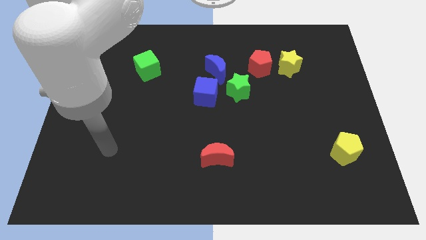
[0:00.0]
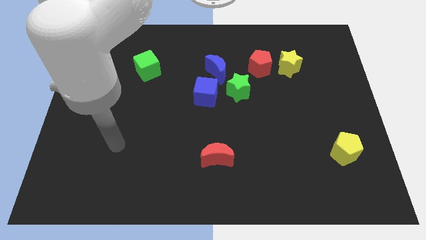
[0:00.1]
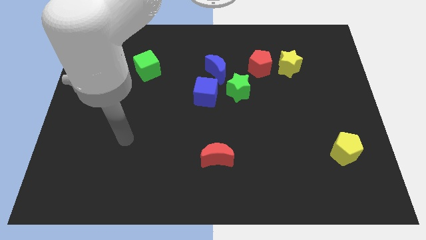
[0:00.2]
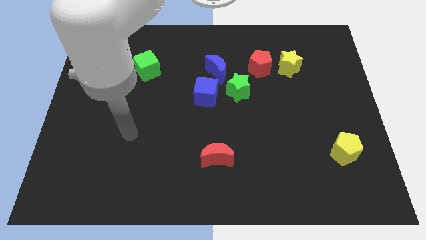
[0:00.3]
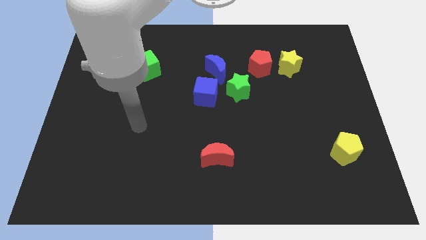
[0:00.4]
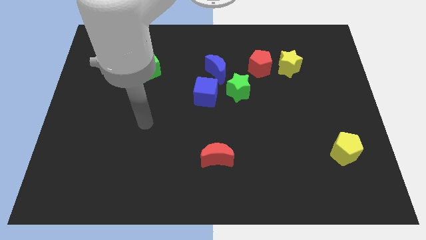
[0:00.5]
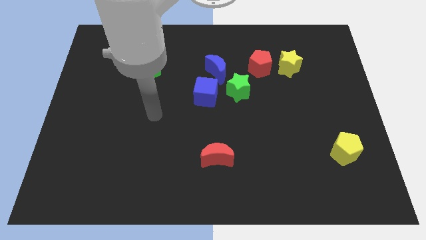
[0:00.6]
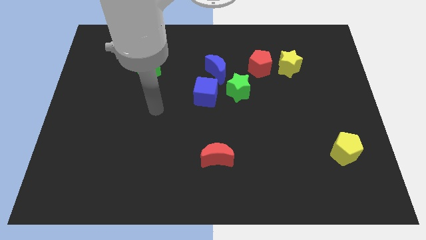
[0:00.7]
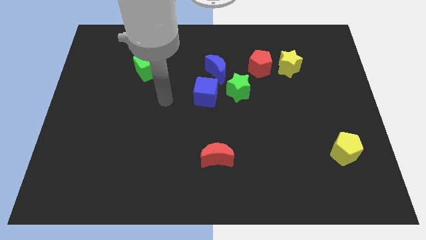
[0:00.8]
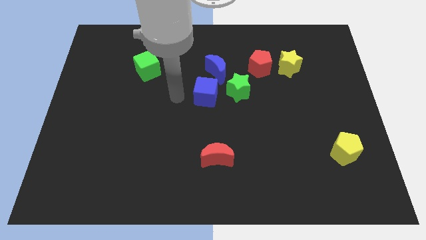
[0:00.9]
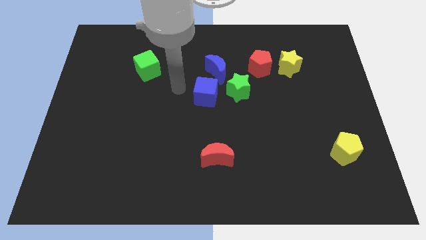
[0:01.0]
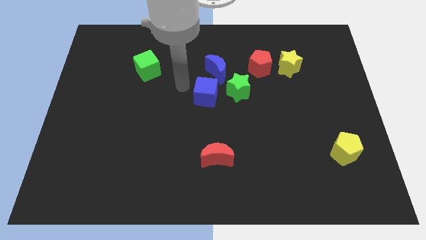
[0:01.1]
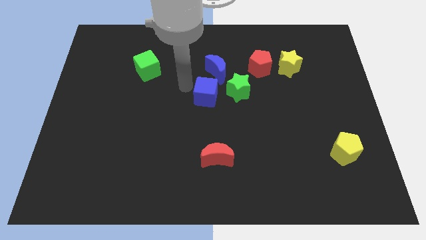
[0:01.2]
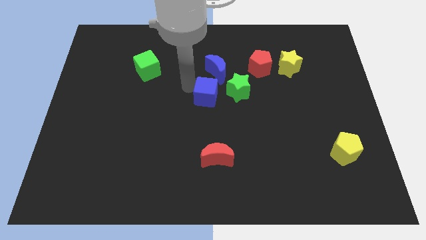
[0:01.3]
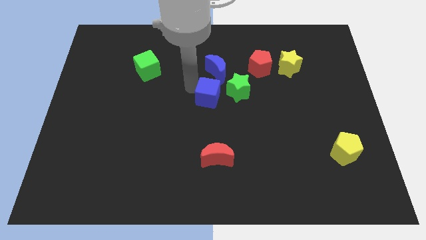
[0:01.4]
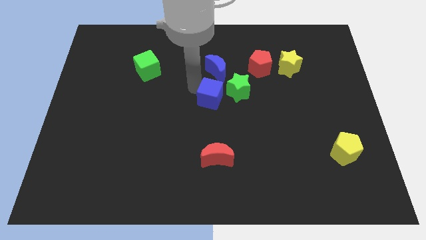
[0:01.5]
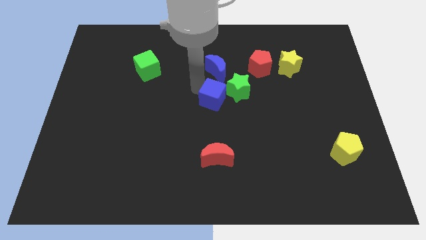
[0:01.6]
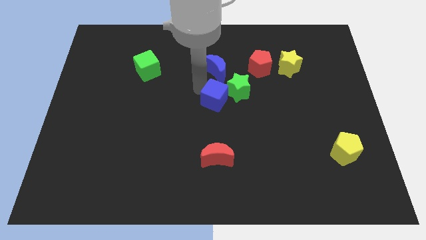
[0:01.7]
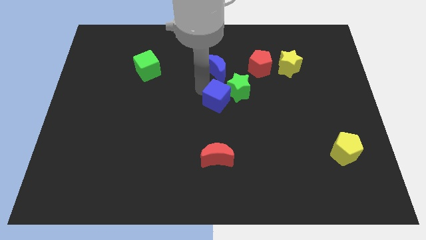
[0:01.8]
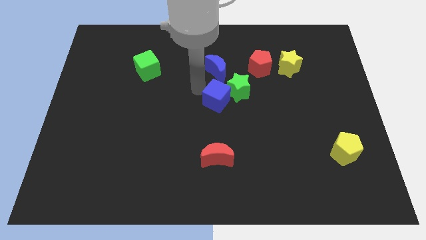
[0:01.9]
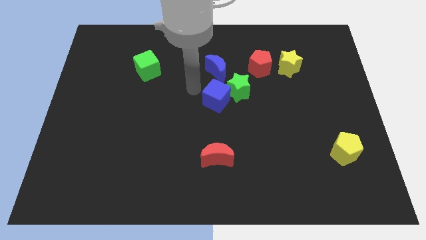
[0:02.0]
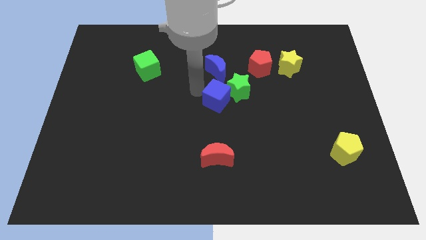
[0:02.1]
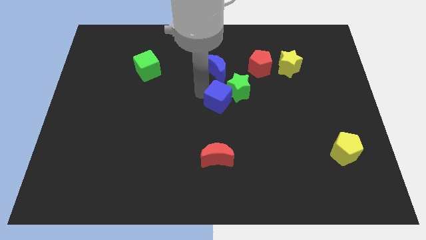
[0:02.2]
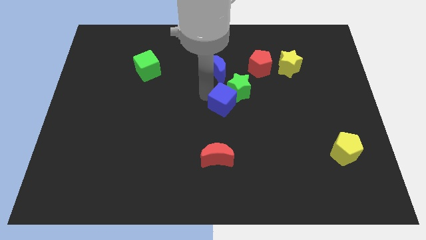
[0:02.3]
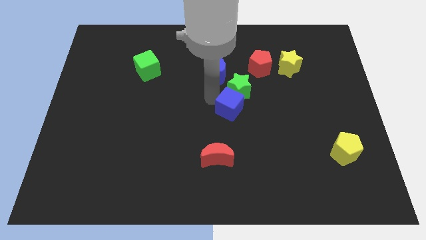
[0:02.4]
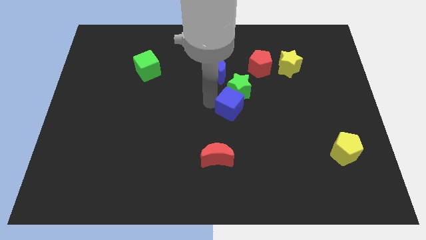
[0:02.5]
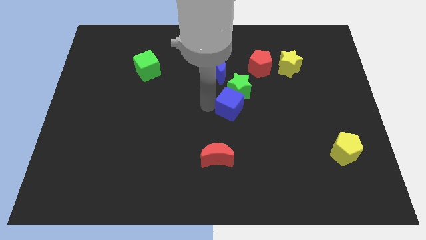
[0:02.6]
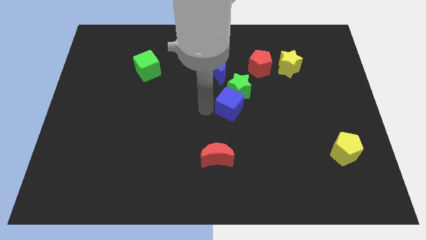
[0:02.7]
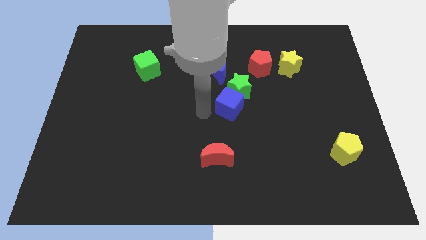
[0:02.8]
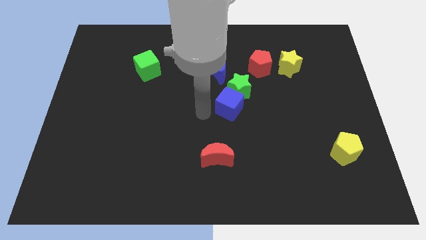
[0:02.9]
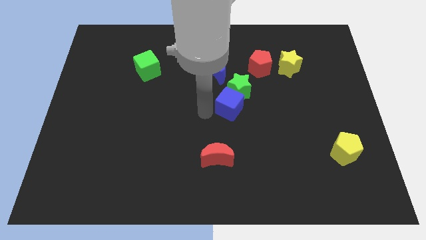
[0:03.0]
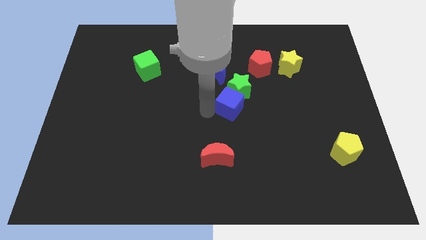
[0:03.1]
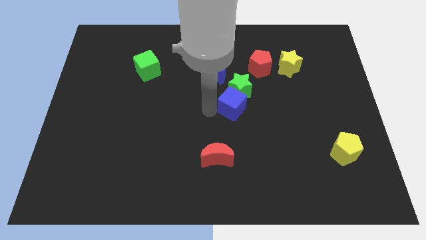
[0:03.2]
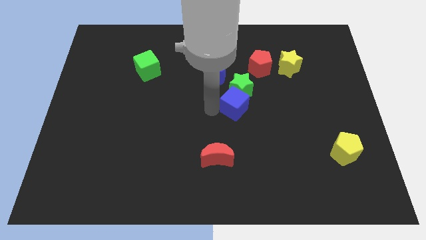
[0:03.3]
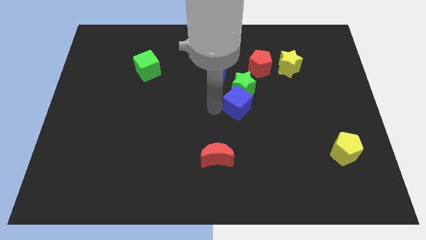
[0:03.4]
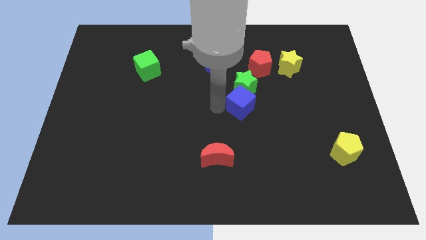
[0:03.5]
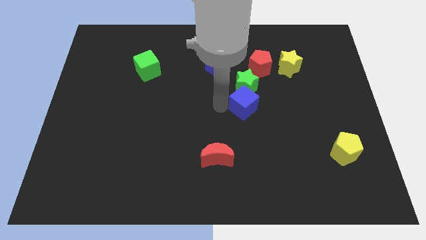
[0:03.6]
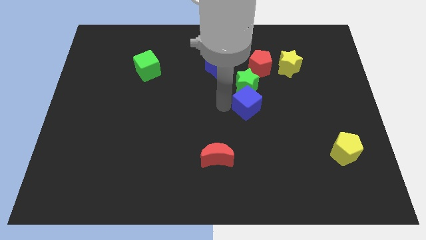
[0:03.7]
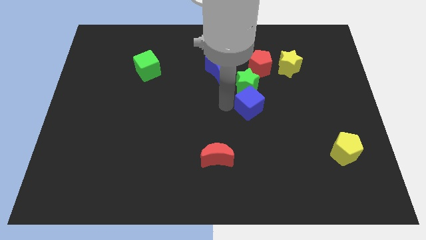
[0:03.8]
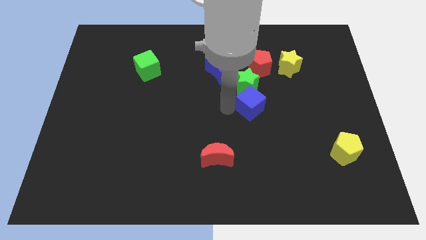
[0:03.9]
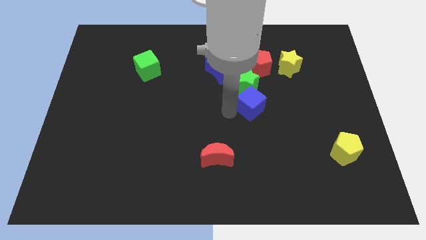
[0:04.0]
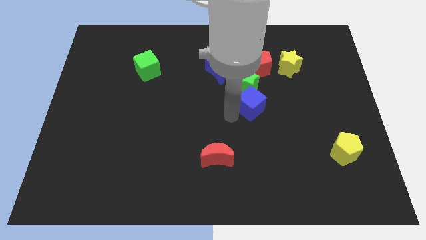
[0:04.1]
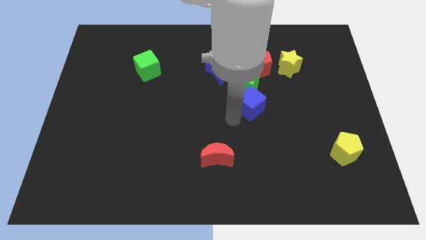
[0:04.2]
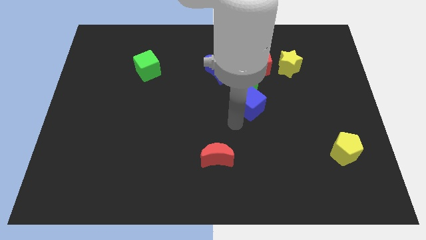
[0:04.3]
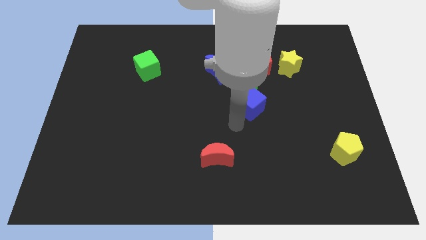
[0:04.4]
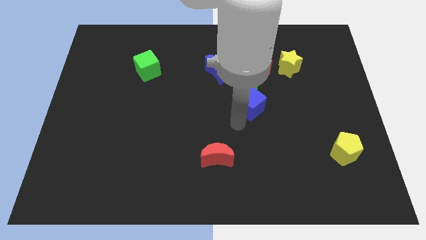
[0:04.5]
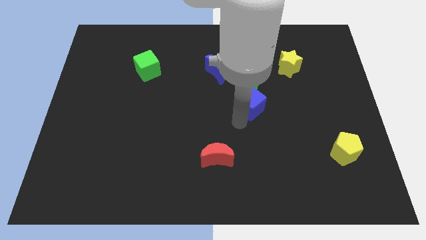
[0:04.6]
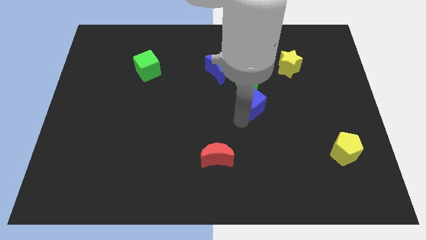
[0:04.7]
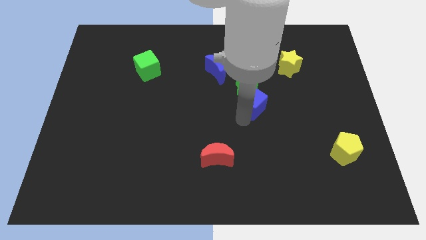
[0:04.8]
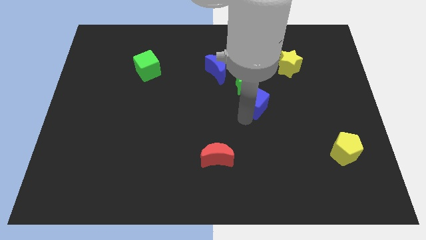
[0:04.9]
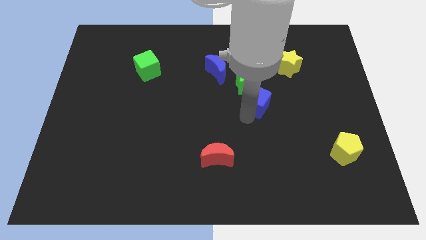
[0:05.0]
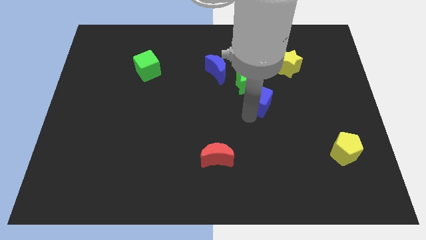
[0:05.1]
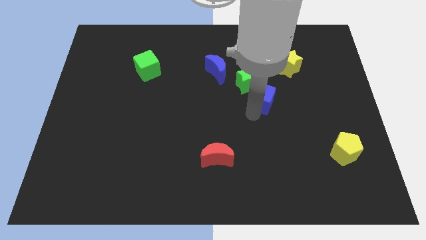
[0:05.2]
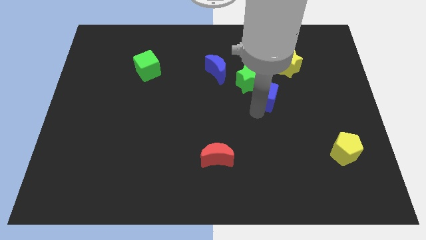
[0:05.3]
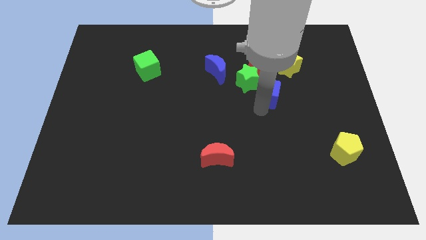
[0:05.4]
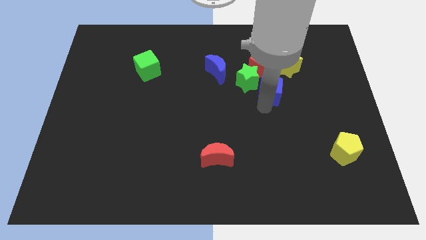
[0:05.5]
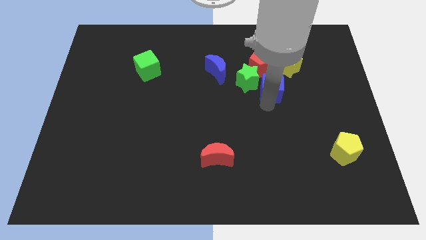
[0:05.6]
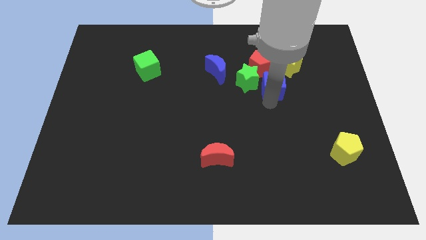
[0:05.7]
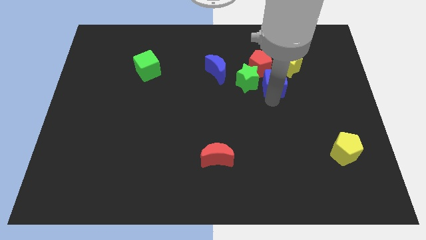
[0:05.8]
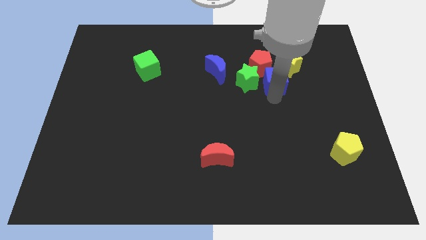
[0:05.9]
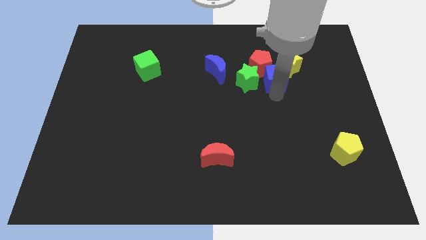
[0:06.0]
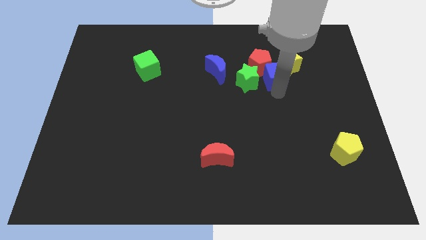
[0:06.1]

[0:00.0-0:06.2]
slide the blue cube to the left of the yellow star
